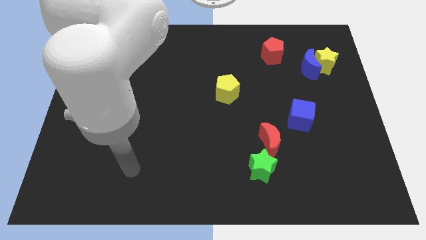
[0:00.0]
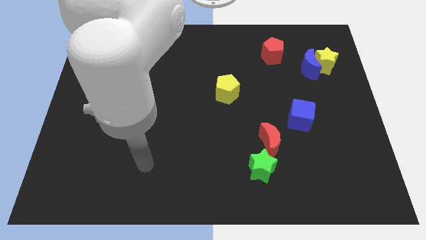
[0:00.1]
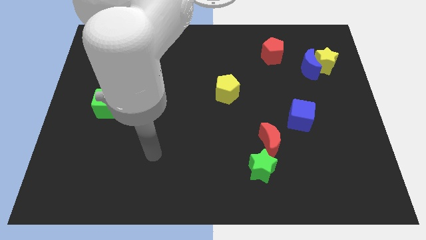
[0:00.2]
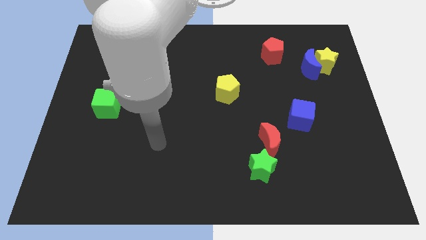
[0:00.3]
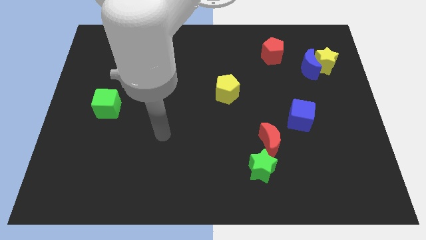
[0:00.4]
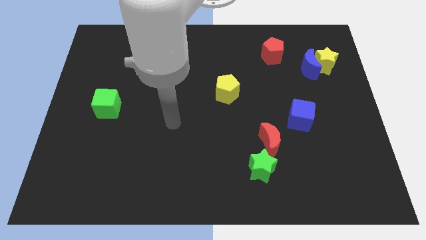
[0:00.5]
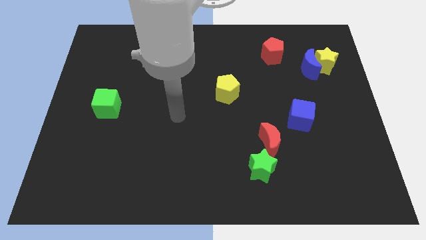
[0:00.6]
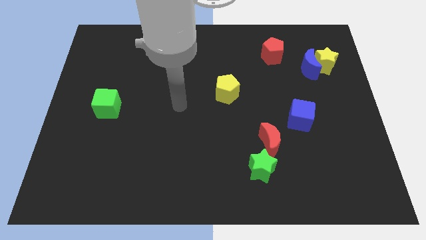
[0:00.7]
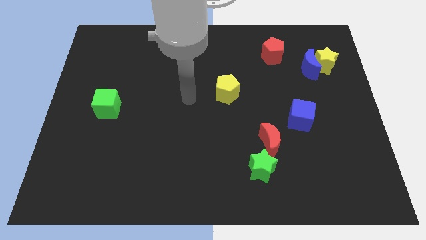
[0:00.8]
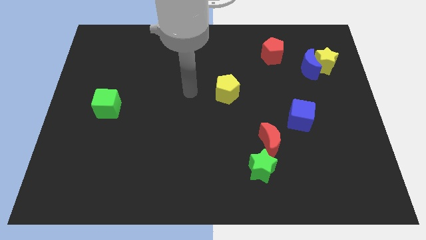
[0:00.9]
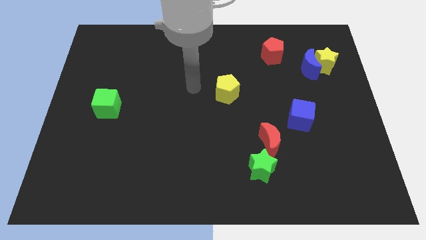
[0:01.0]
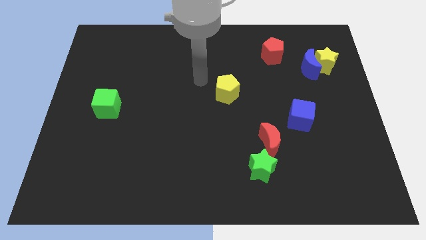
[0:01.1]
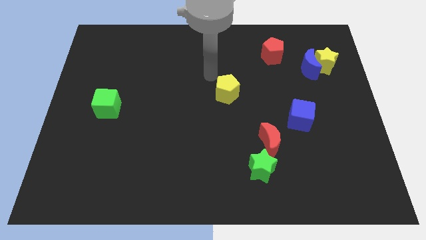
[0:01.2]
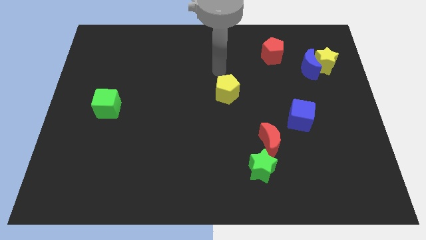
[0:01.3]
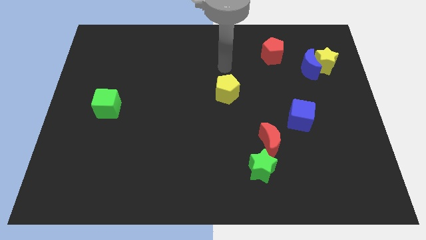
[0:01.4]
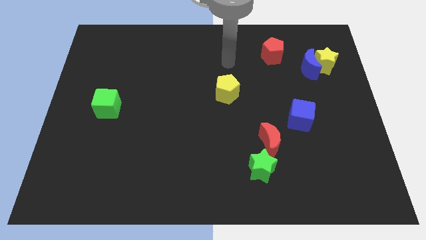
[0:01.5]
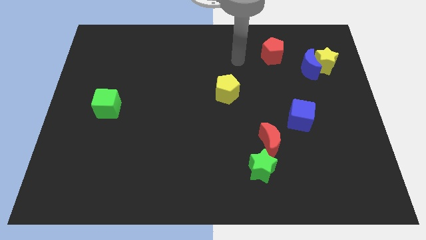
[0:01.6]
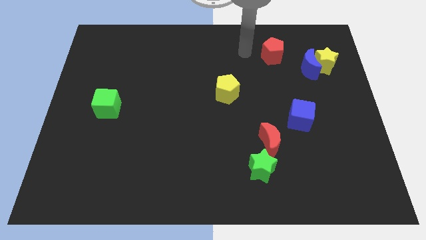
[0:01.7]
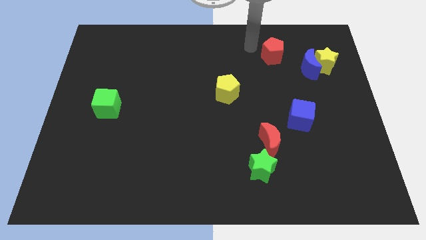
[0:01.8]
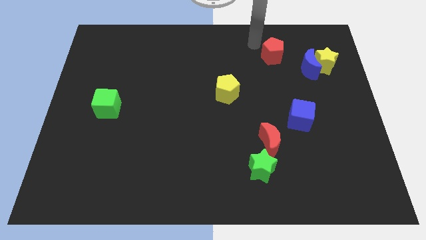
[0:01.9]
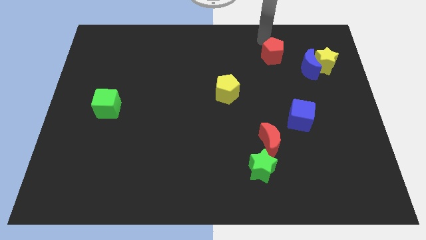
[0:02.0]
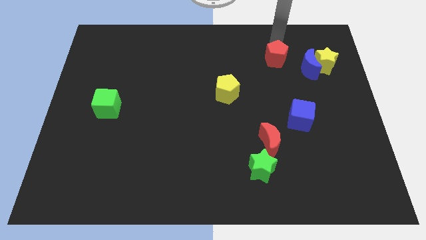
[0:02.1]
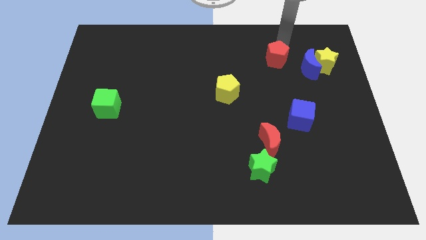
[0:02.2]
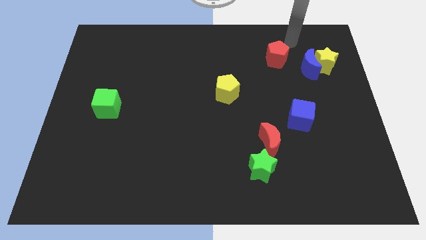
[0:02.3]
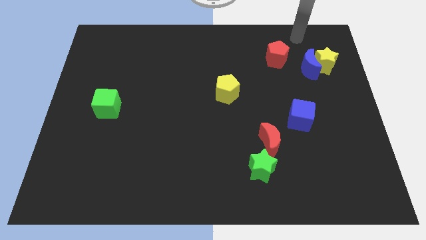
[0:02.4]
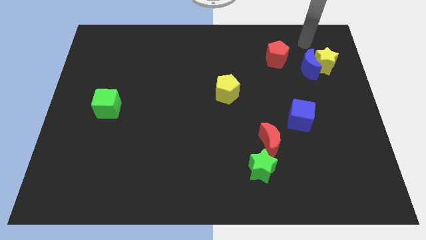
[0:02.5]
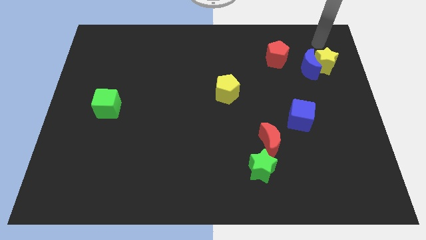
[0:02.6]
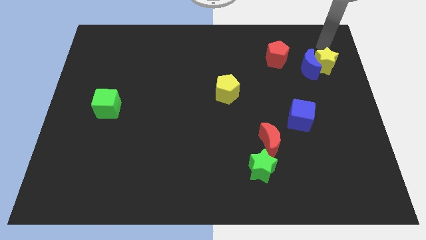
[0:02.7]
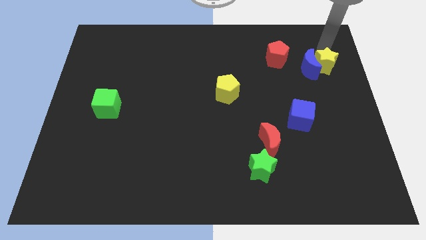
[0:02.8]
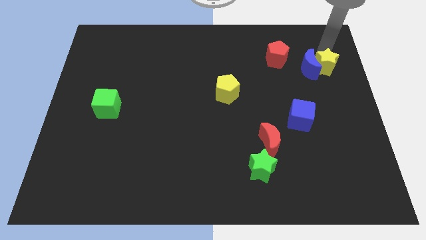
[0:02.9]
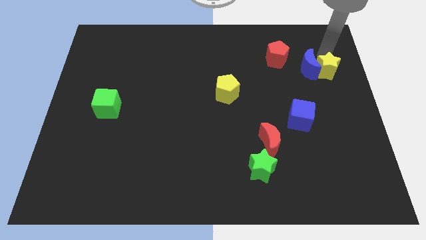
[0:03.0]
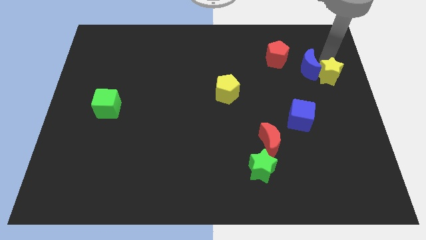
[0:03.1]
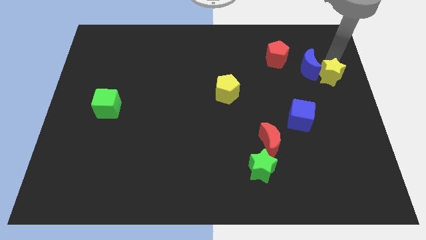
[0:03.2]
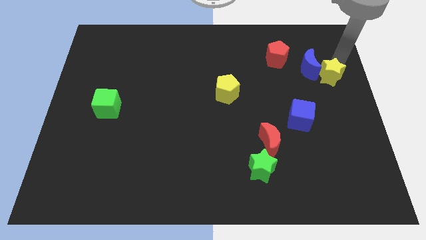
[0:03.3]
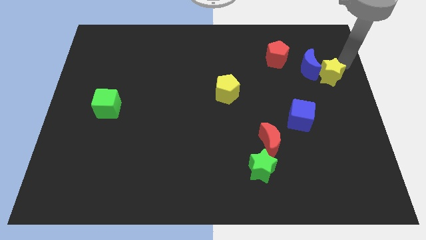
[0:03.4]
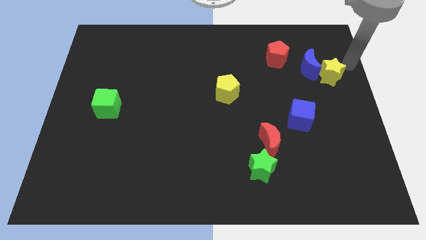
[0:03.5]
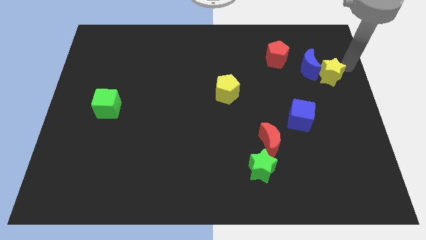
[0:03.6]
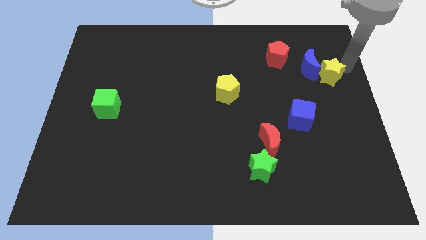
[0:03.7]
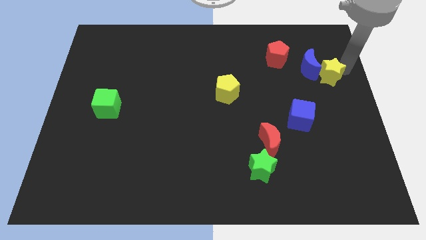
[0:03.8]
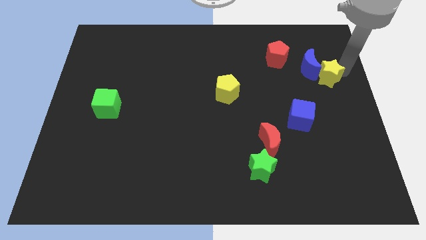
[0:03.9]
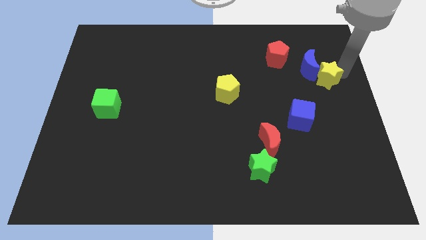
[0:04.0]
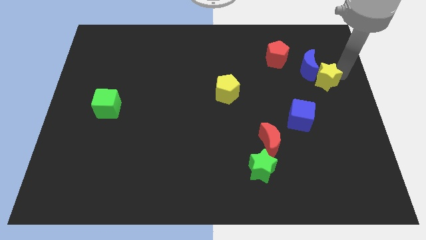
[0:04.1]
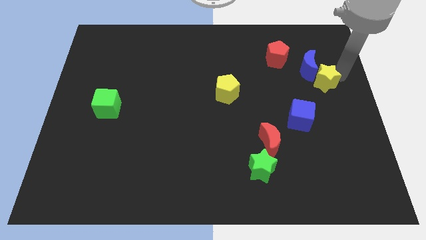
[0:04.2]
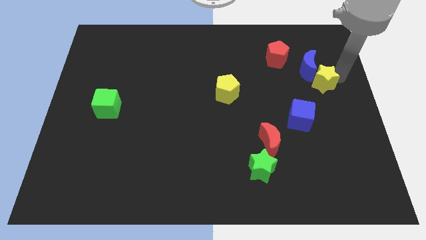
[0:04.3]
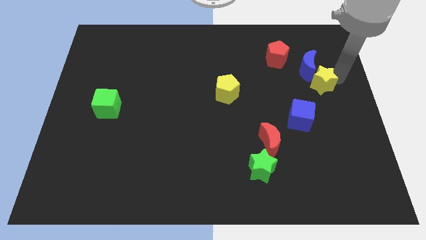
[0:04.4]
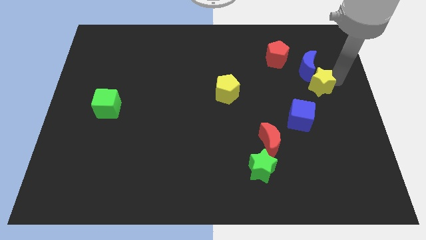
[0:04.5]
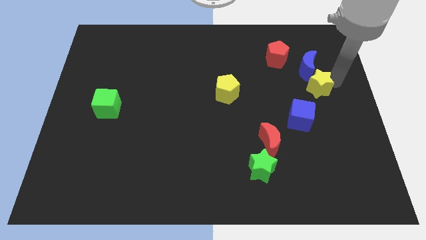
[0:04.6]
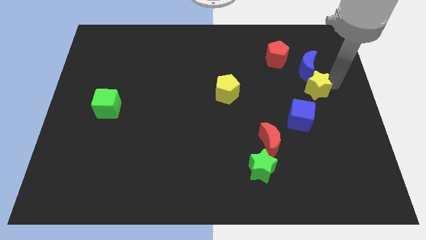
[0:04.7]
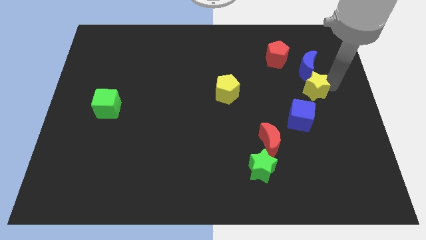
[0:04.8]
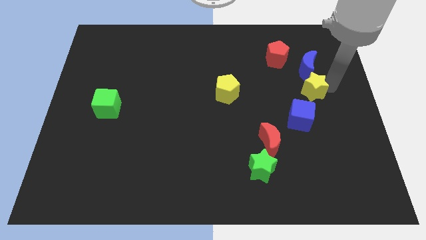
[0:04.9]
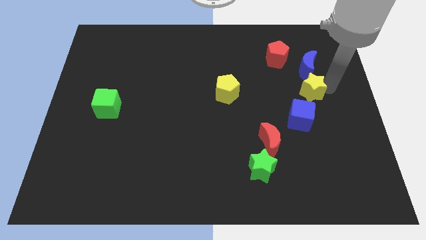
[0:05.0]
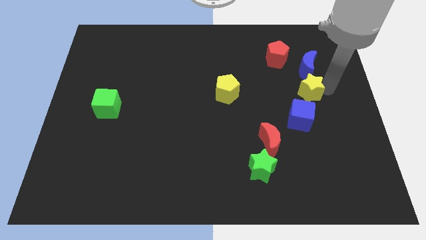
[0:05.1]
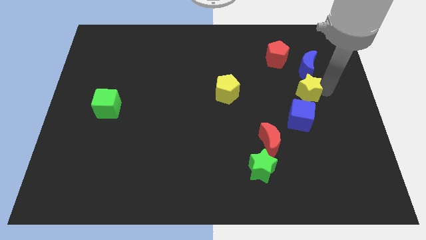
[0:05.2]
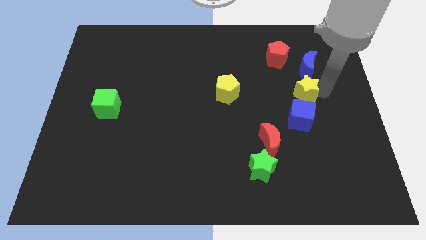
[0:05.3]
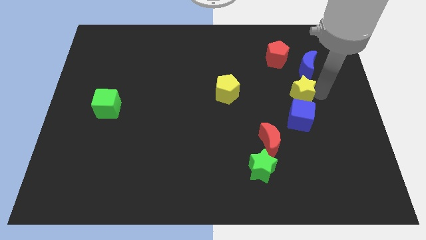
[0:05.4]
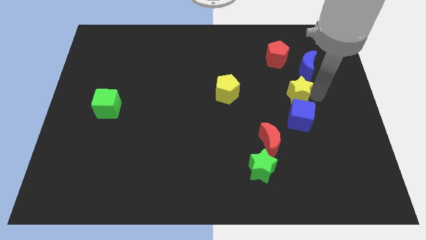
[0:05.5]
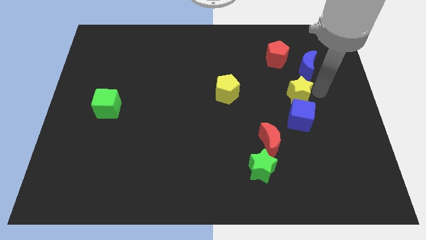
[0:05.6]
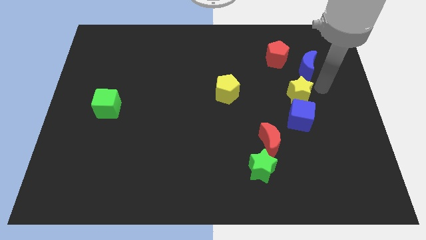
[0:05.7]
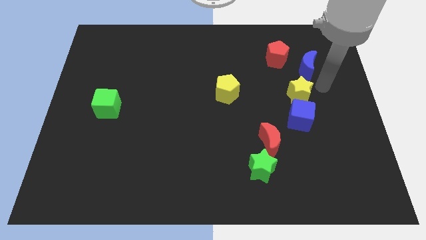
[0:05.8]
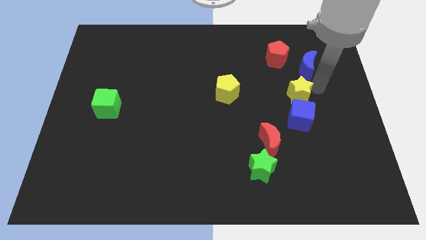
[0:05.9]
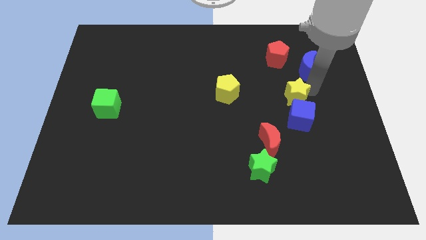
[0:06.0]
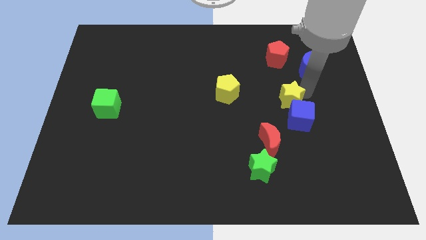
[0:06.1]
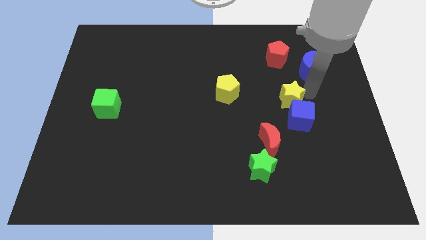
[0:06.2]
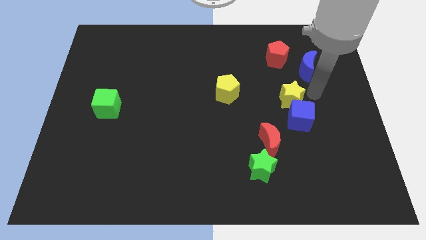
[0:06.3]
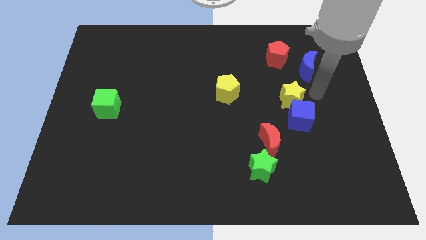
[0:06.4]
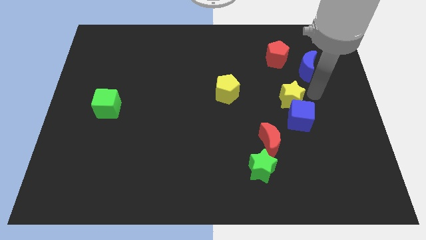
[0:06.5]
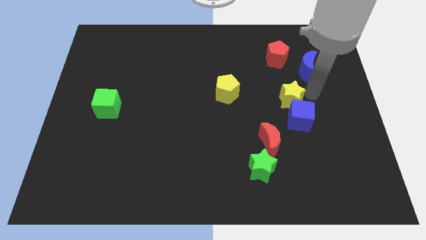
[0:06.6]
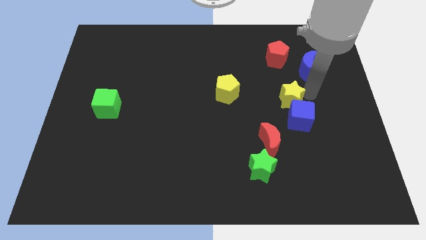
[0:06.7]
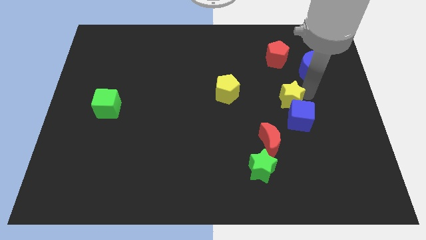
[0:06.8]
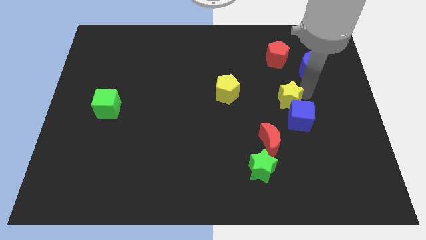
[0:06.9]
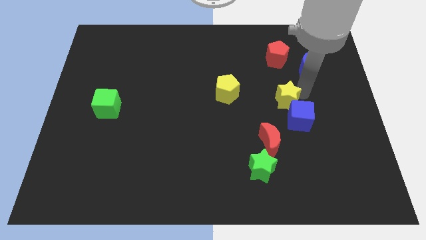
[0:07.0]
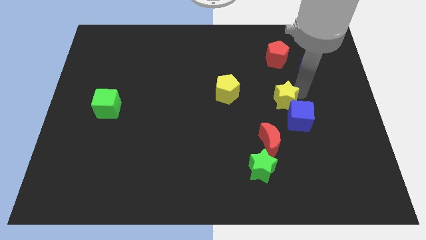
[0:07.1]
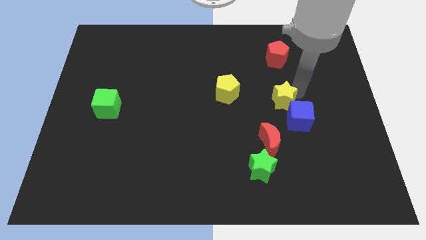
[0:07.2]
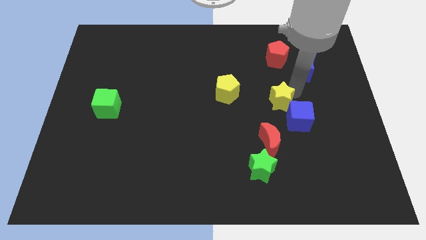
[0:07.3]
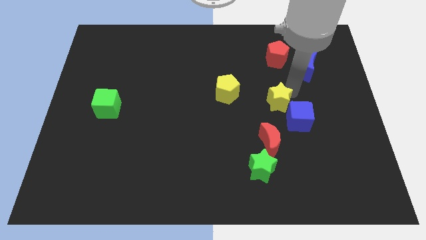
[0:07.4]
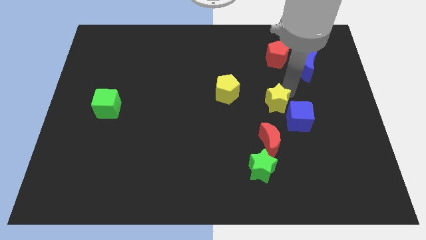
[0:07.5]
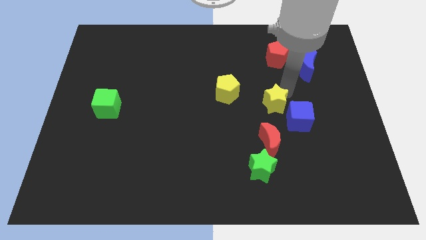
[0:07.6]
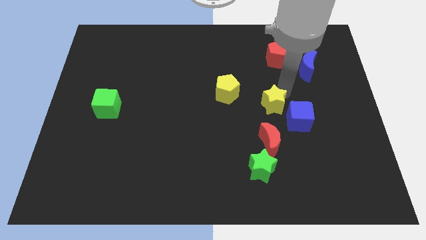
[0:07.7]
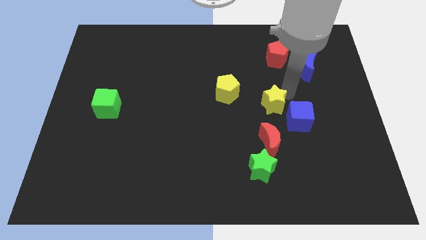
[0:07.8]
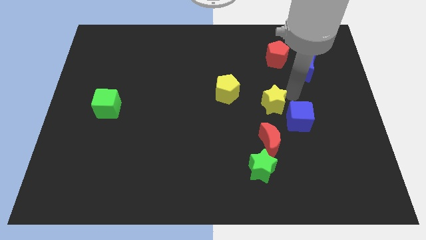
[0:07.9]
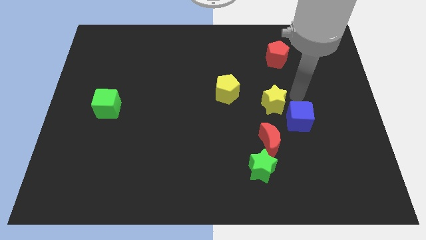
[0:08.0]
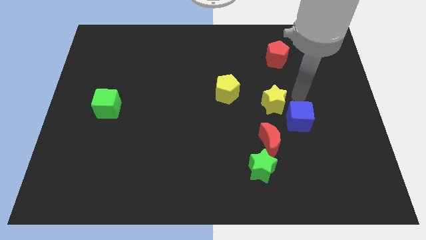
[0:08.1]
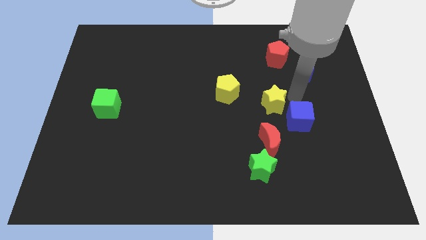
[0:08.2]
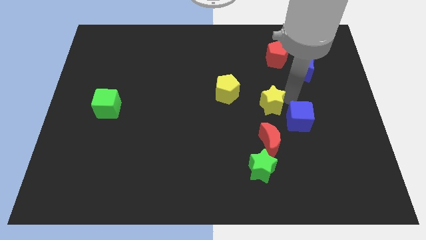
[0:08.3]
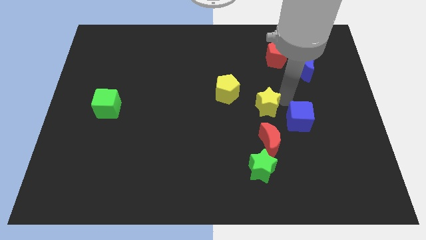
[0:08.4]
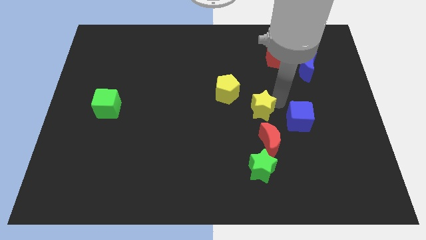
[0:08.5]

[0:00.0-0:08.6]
push the yellow star to the middle
